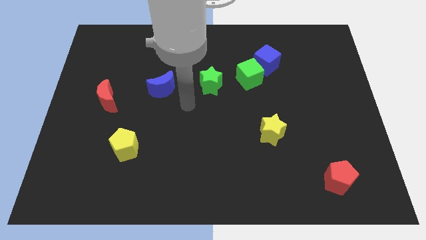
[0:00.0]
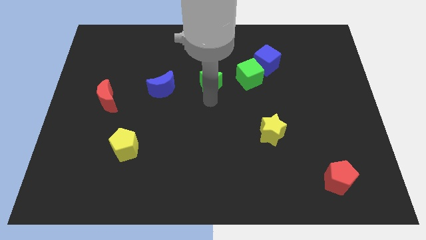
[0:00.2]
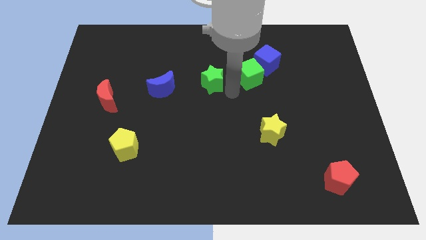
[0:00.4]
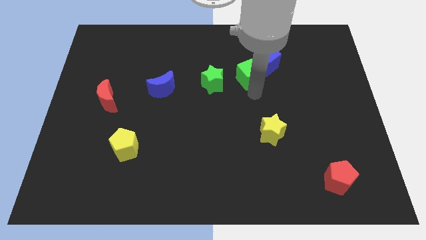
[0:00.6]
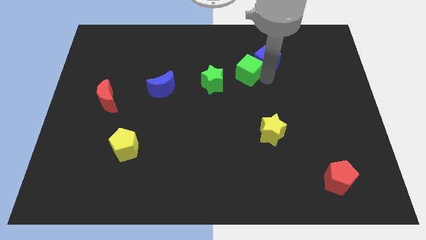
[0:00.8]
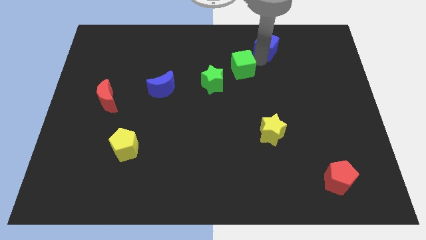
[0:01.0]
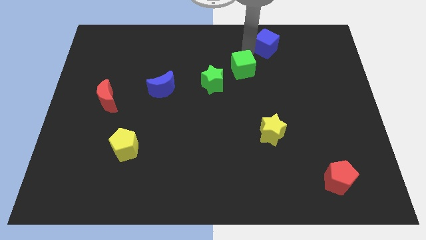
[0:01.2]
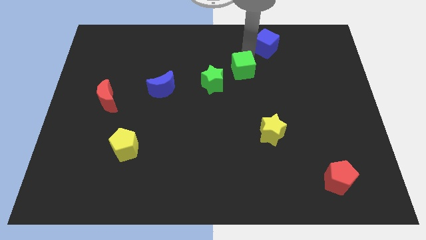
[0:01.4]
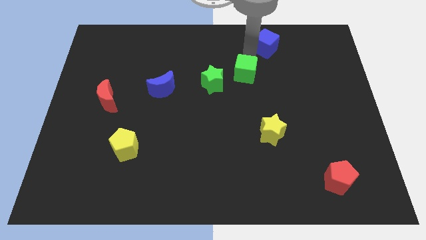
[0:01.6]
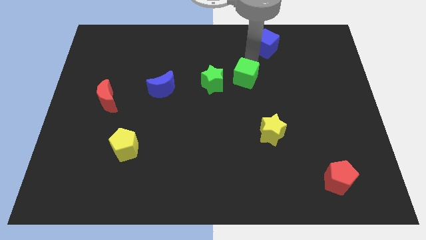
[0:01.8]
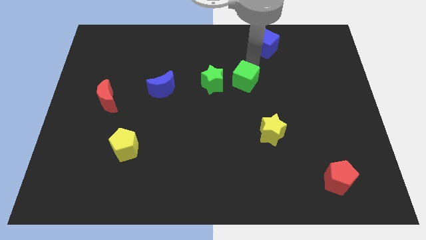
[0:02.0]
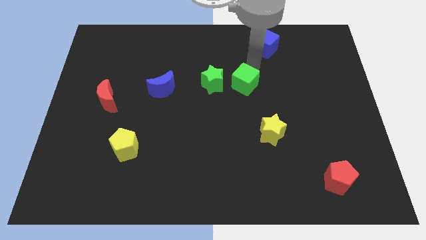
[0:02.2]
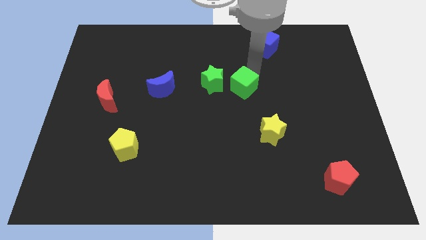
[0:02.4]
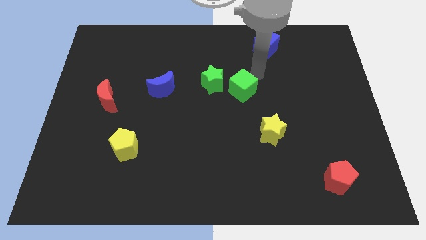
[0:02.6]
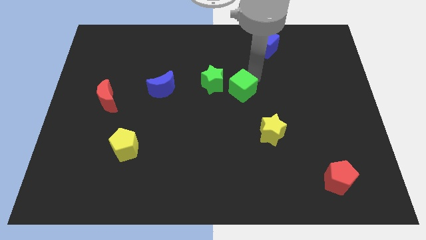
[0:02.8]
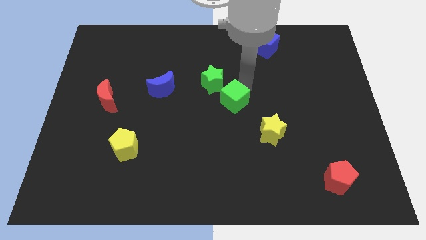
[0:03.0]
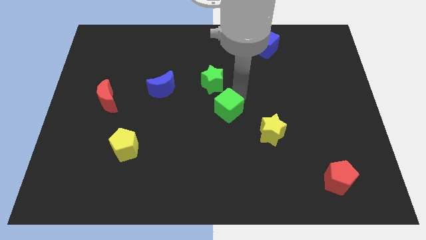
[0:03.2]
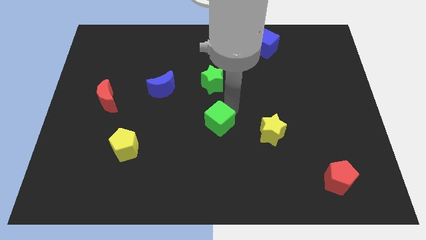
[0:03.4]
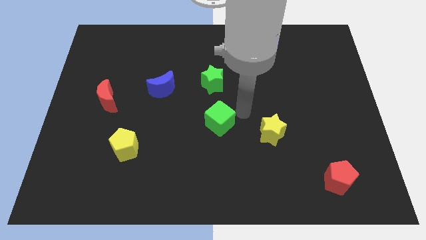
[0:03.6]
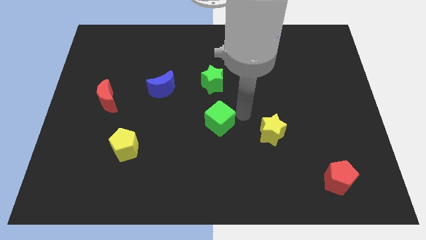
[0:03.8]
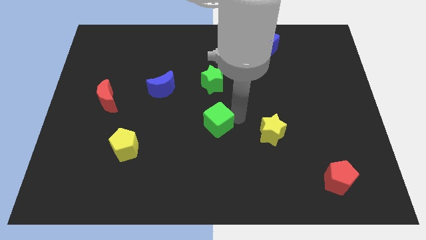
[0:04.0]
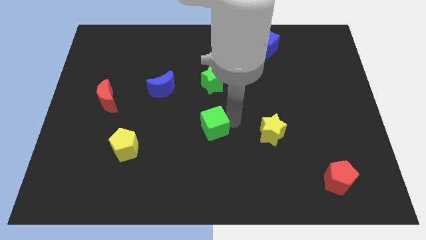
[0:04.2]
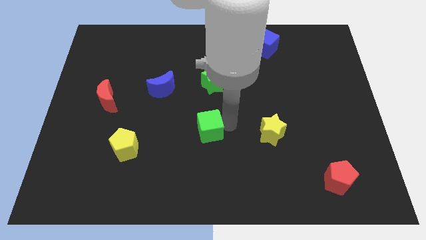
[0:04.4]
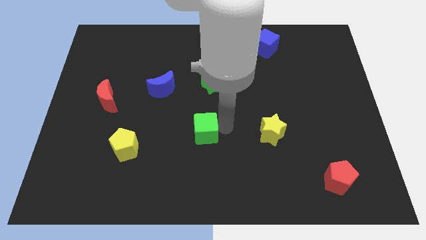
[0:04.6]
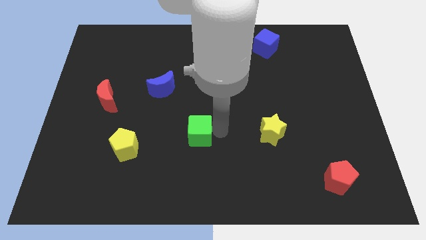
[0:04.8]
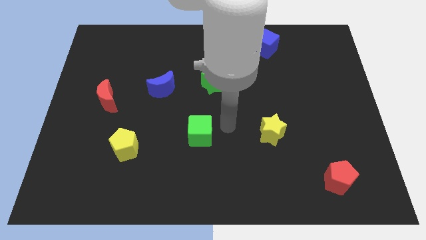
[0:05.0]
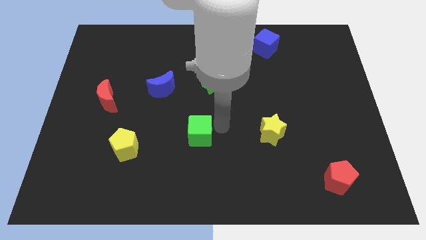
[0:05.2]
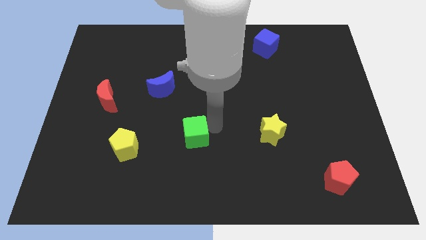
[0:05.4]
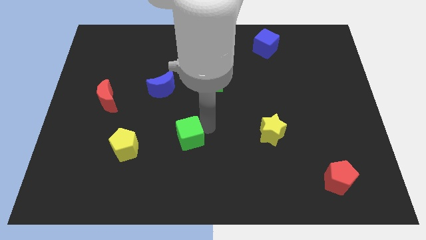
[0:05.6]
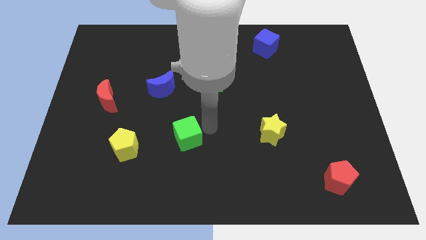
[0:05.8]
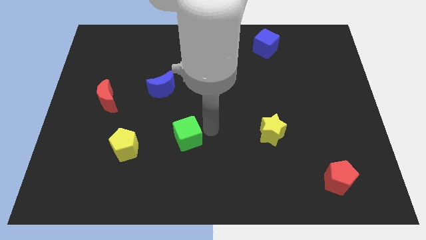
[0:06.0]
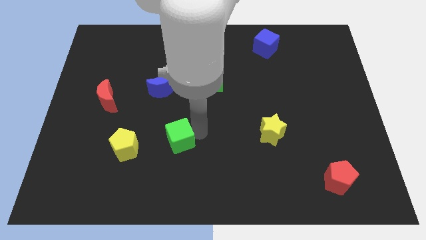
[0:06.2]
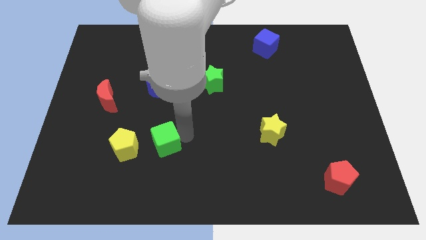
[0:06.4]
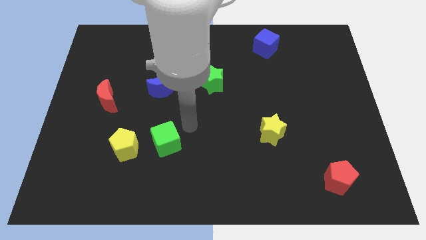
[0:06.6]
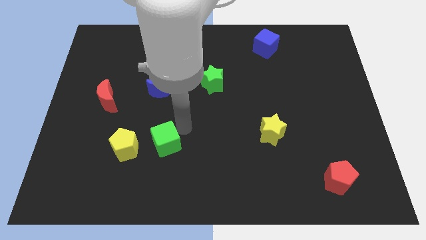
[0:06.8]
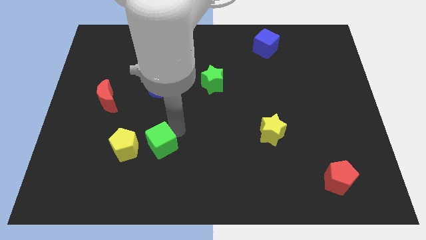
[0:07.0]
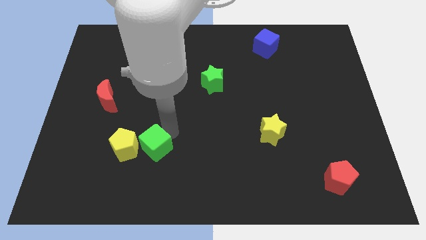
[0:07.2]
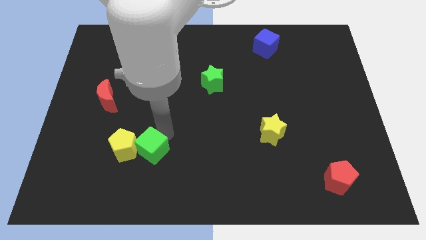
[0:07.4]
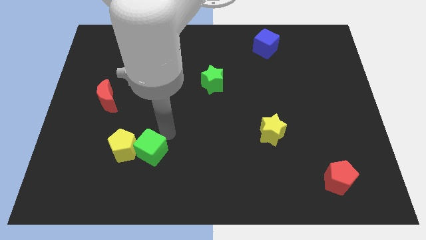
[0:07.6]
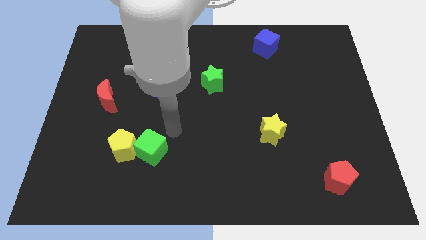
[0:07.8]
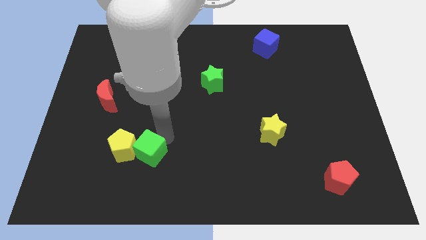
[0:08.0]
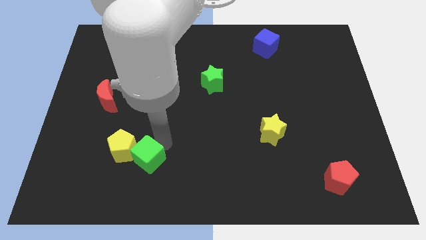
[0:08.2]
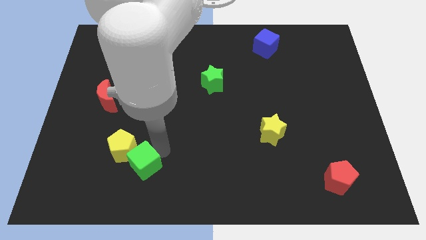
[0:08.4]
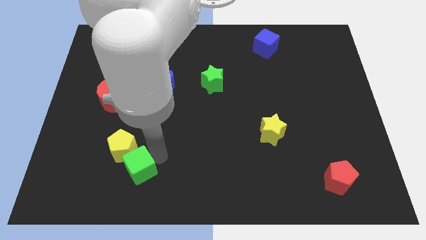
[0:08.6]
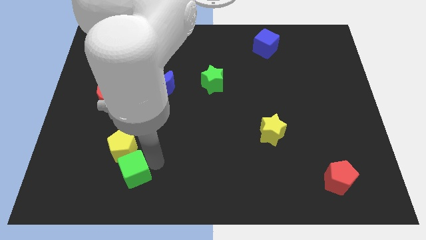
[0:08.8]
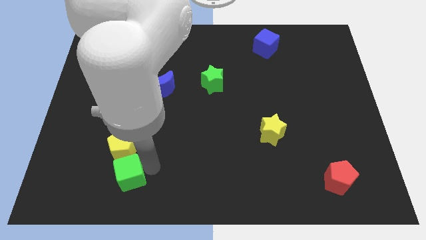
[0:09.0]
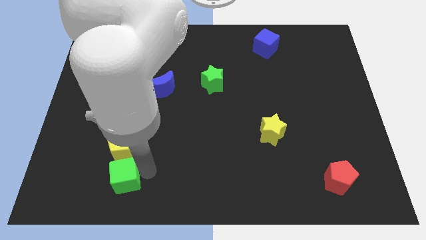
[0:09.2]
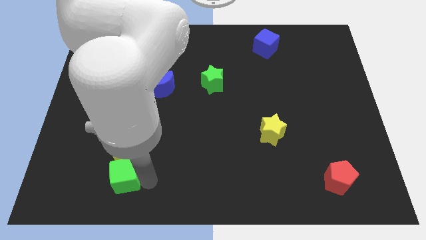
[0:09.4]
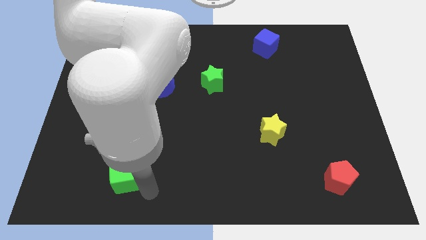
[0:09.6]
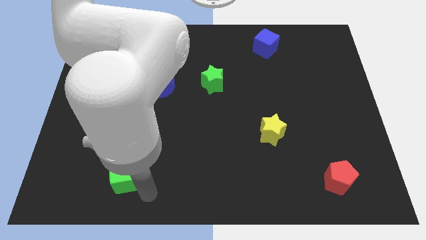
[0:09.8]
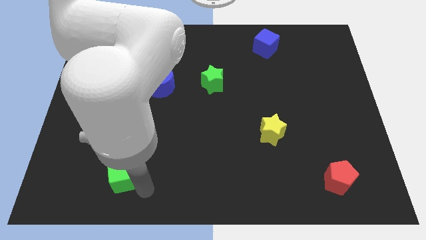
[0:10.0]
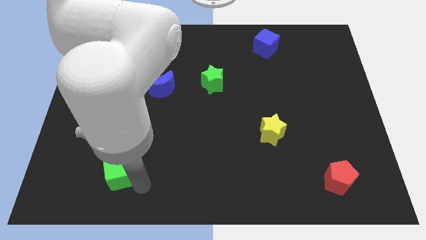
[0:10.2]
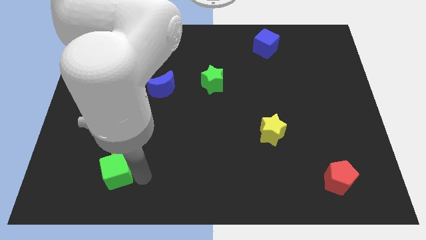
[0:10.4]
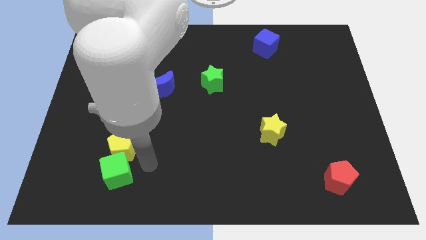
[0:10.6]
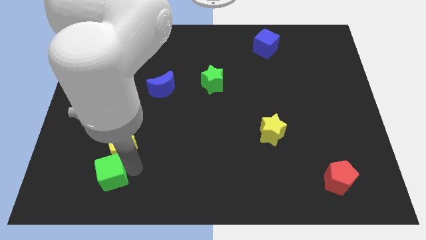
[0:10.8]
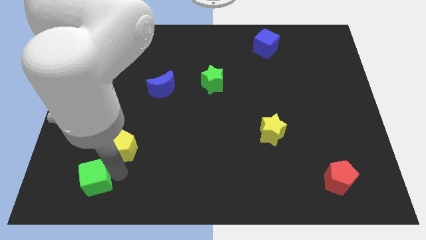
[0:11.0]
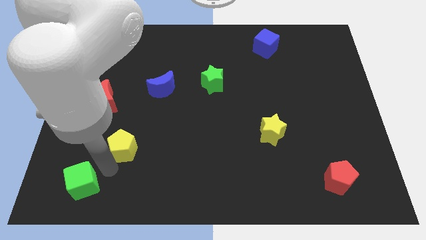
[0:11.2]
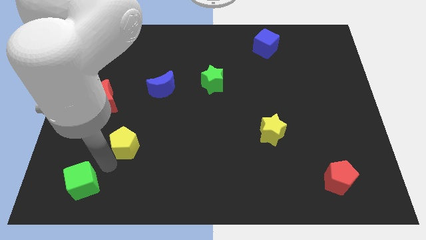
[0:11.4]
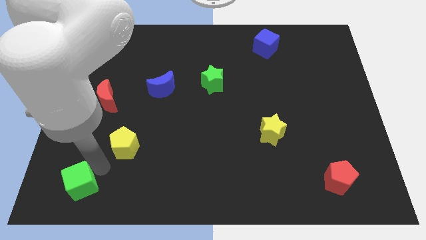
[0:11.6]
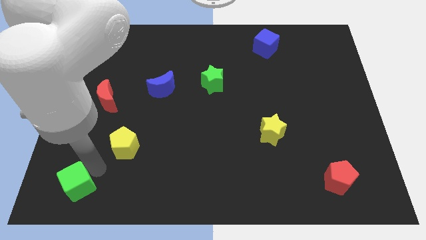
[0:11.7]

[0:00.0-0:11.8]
push the green cube to the bottom left of the board
